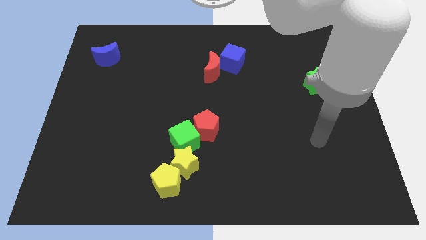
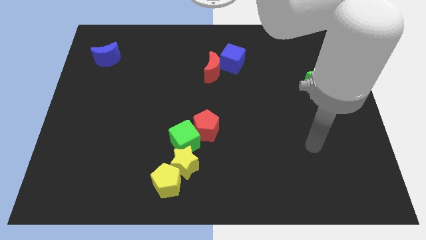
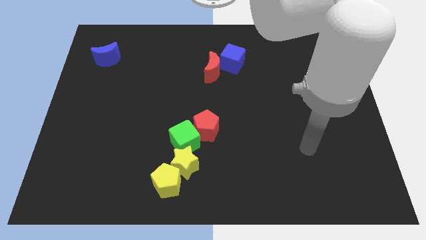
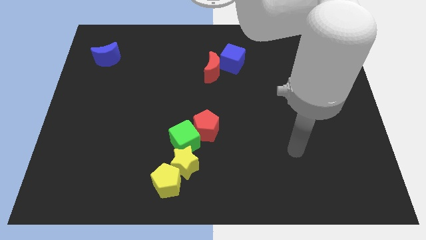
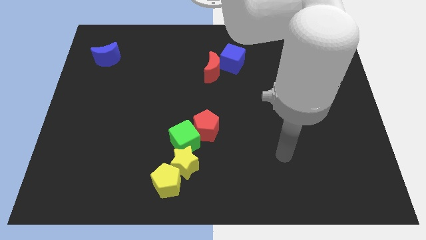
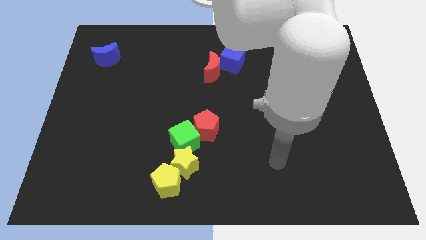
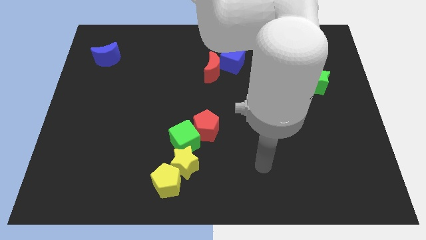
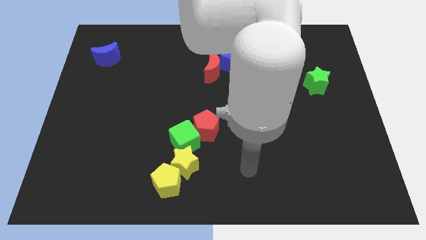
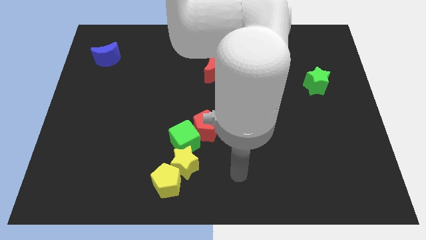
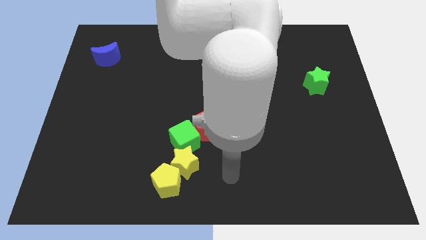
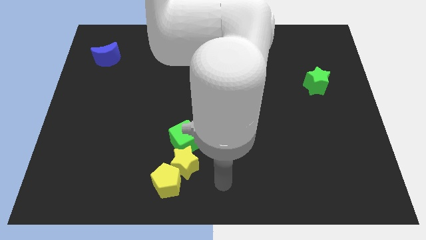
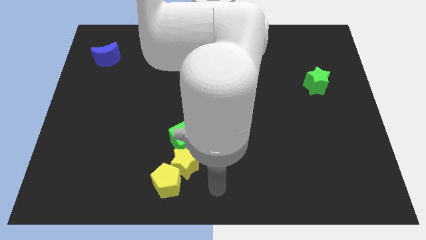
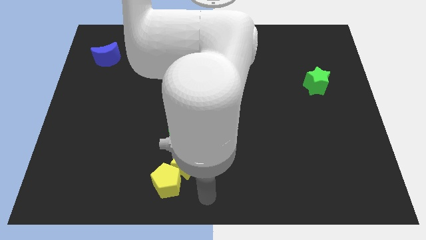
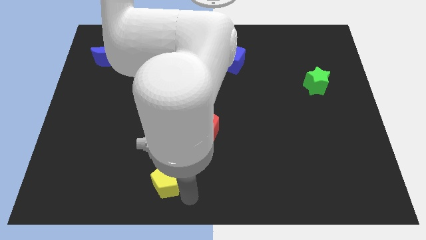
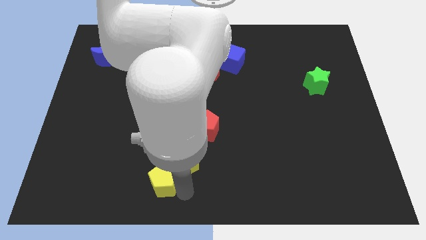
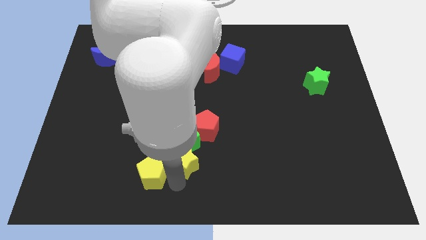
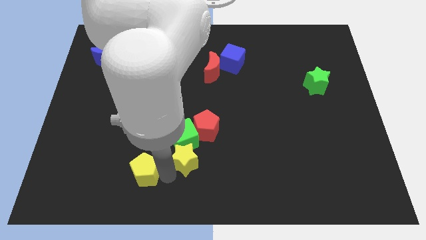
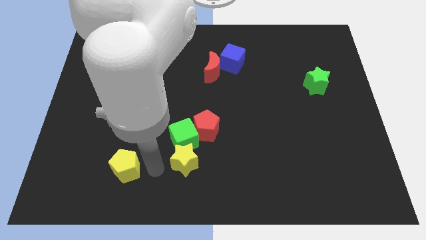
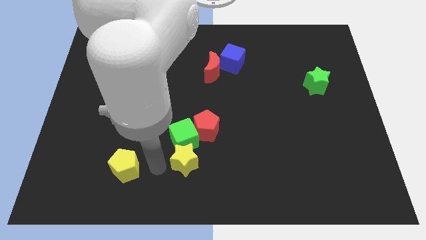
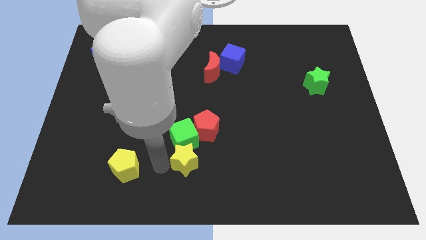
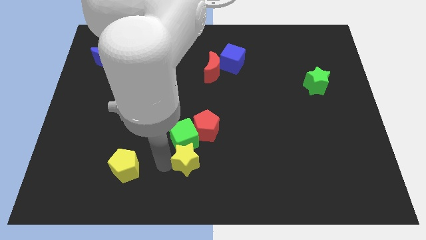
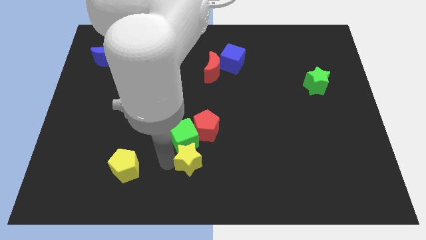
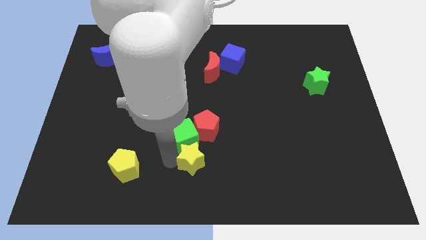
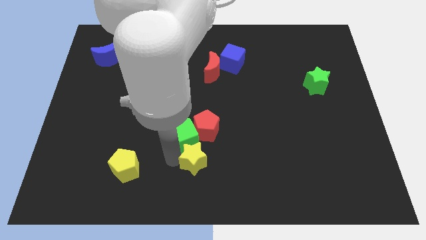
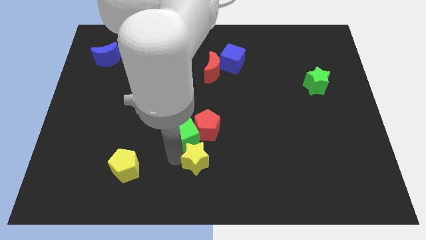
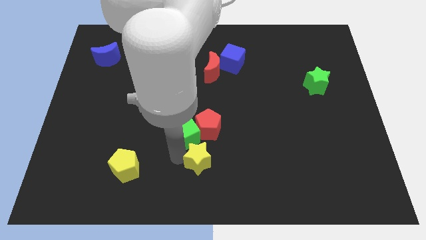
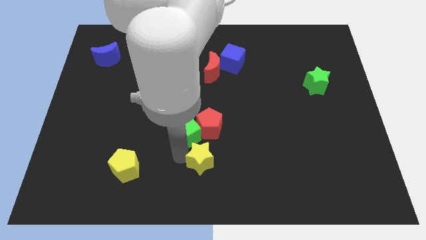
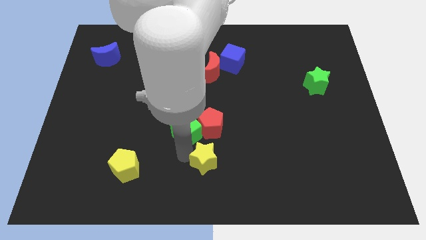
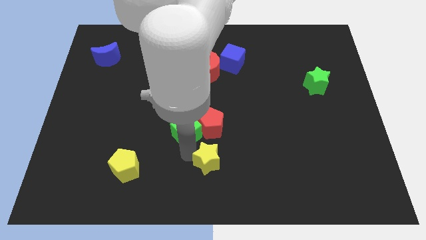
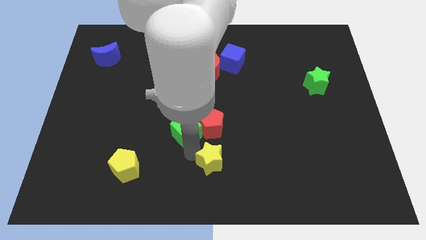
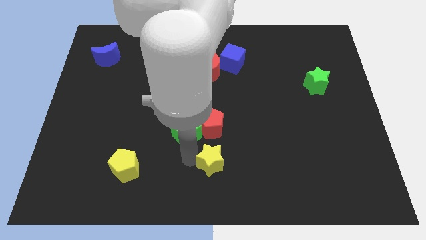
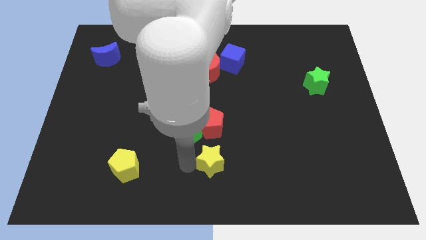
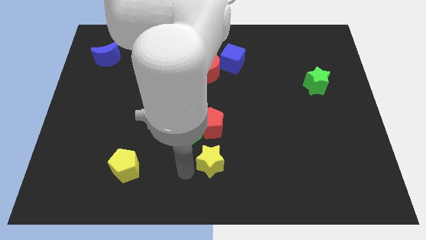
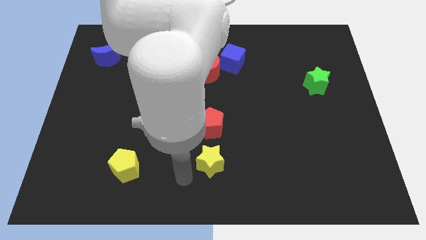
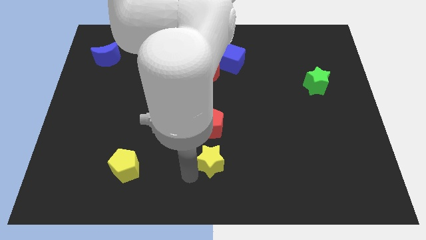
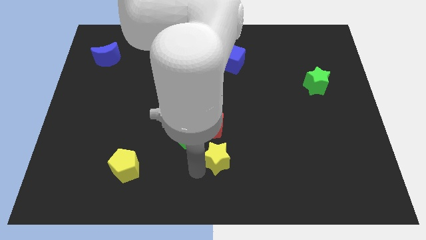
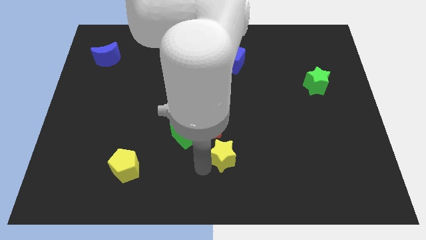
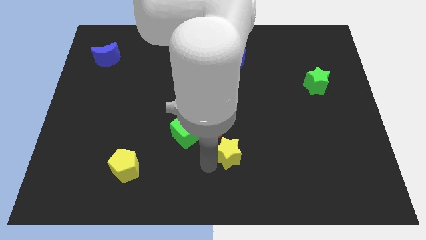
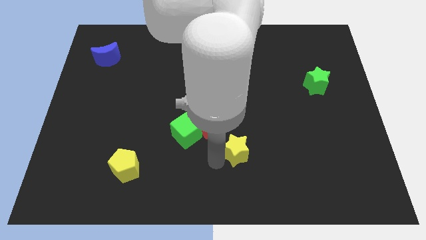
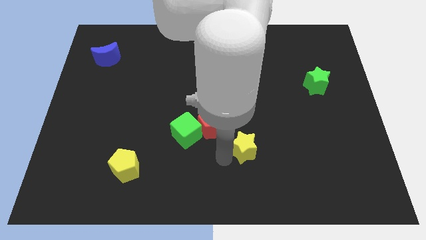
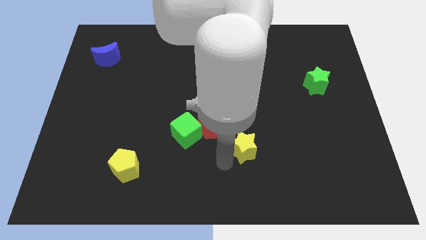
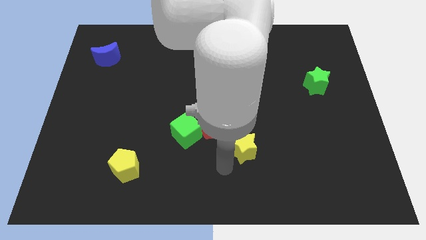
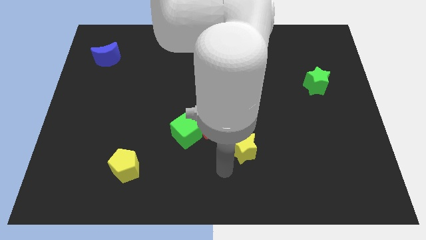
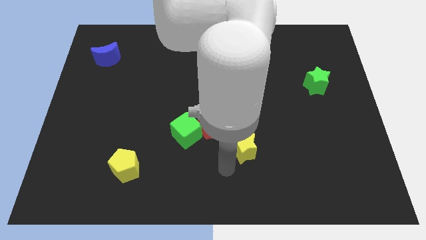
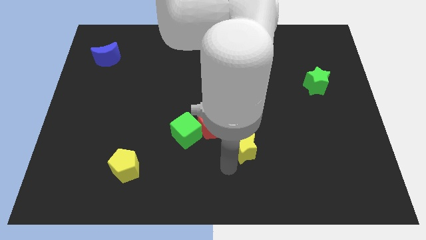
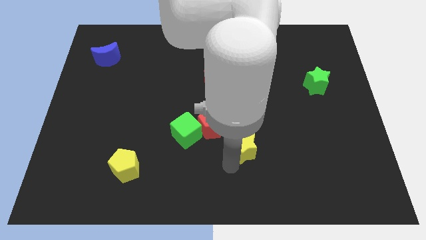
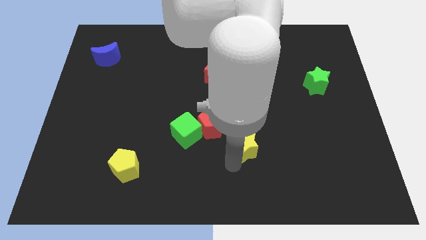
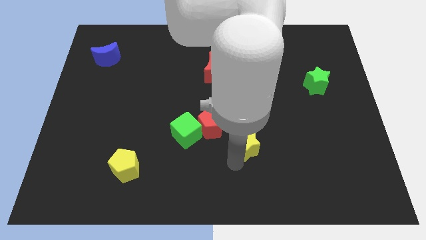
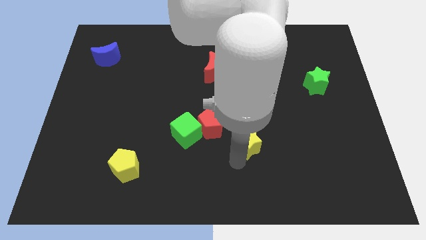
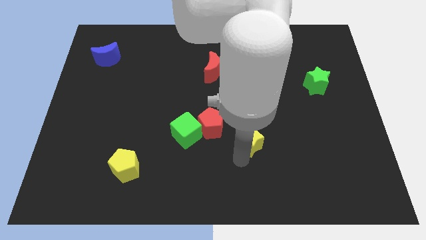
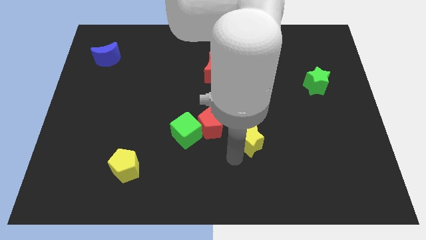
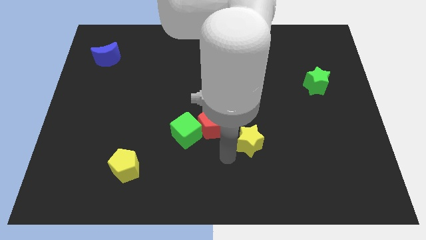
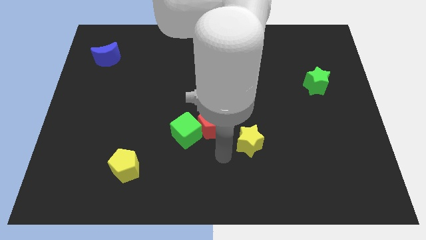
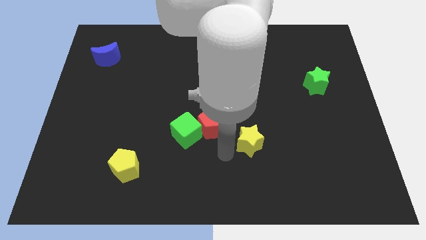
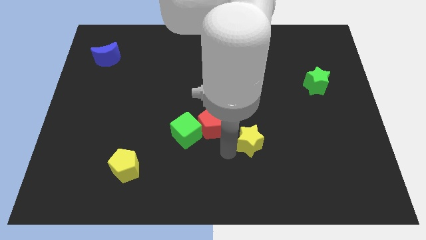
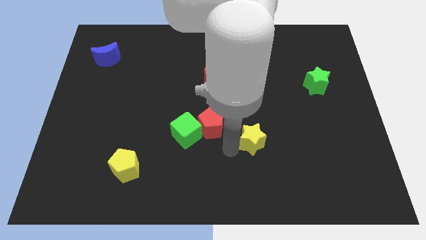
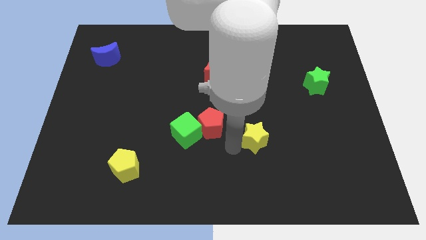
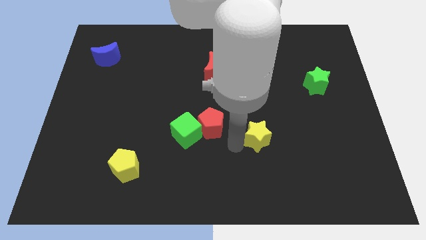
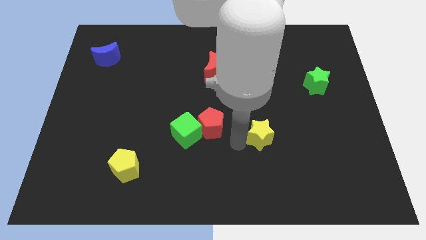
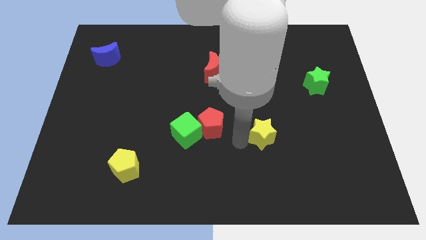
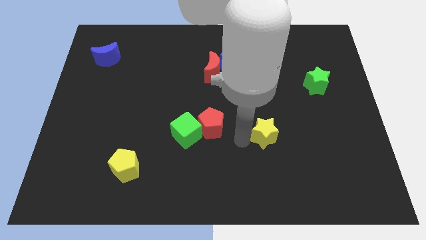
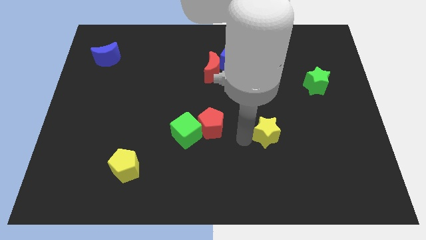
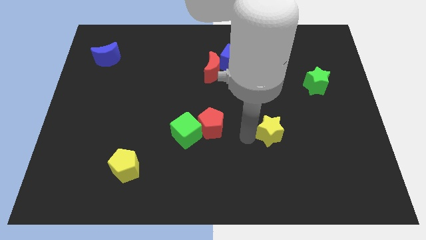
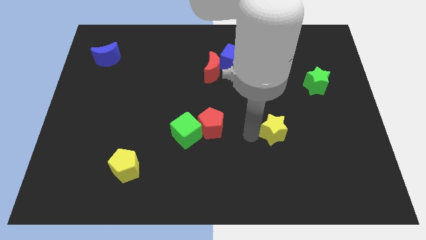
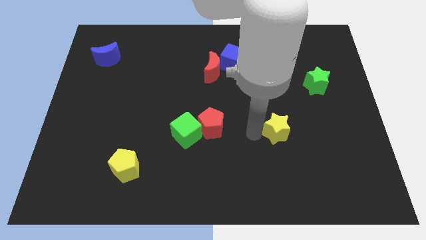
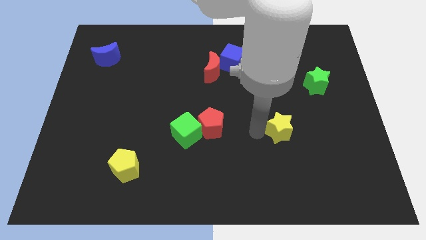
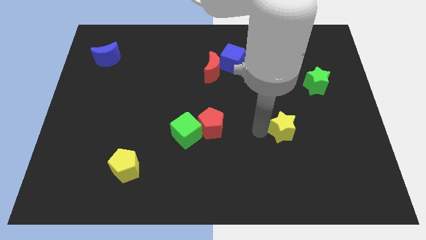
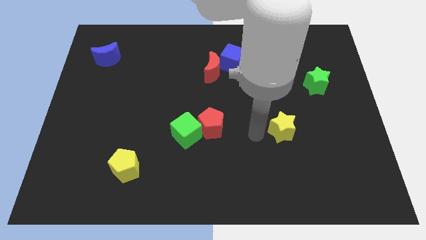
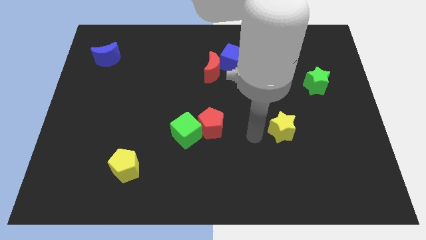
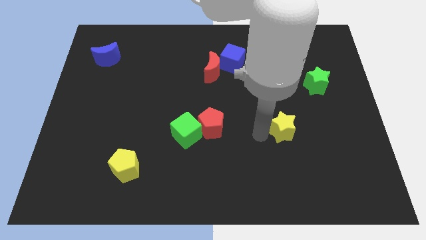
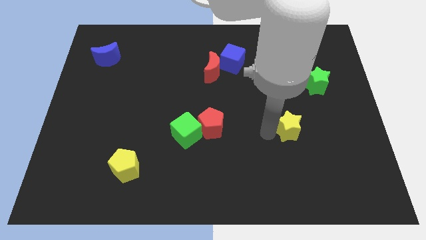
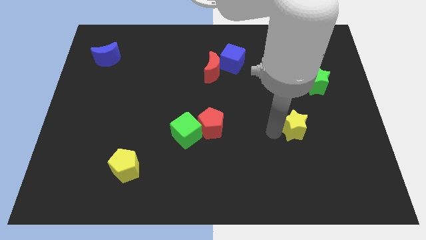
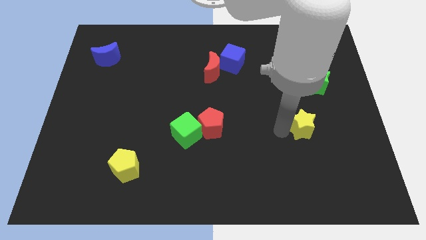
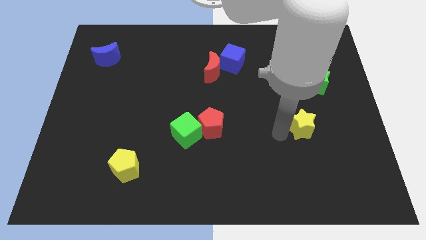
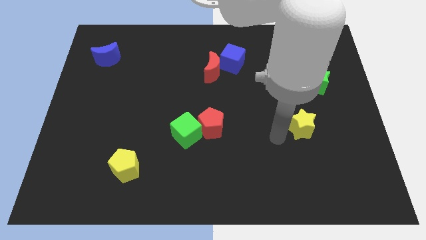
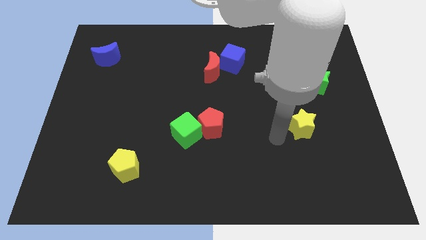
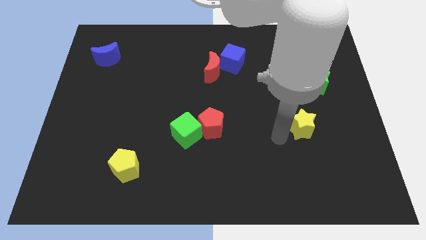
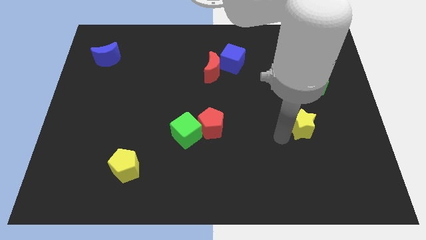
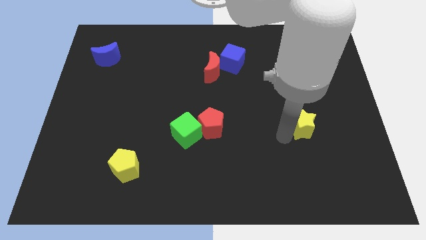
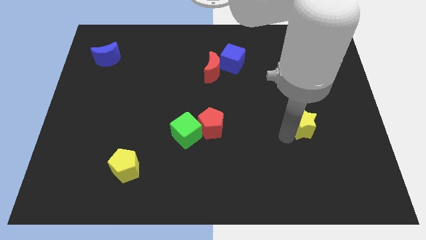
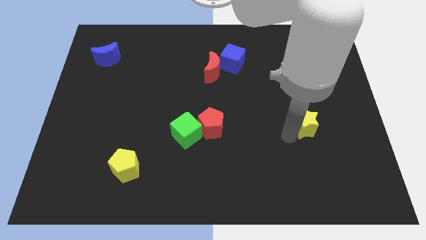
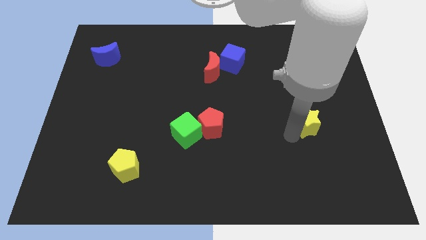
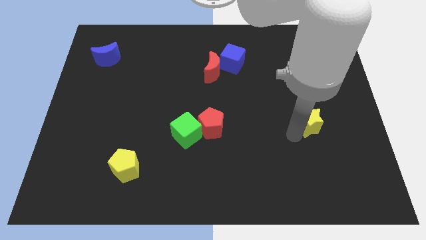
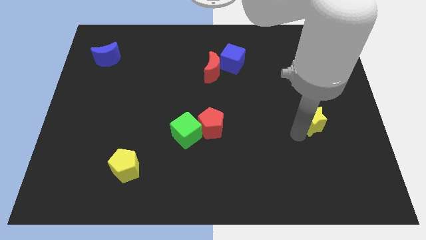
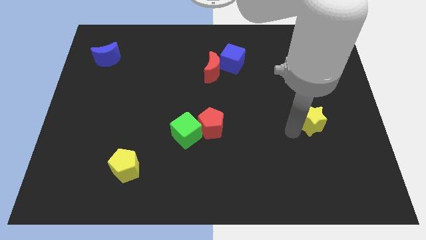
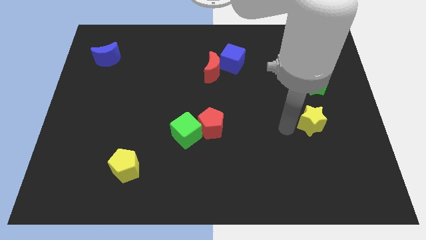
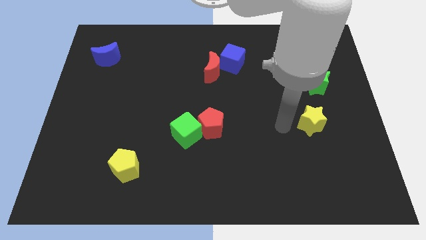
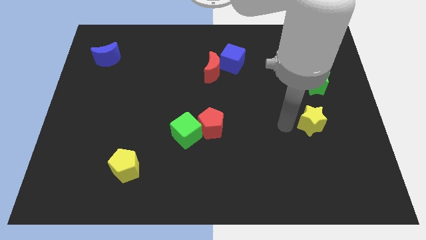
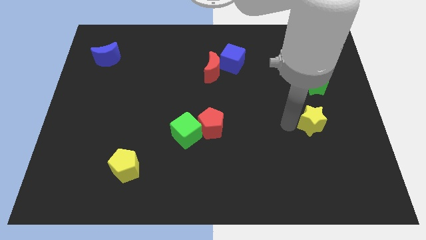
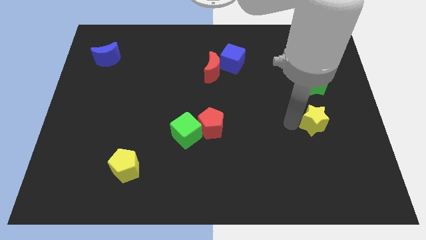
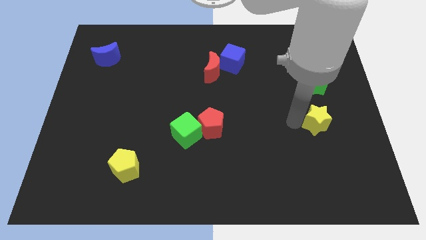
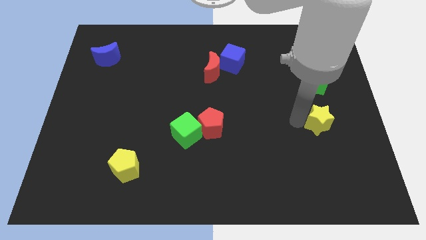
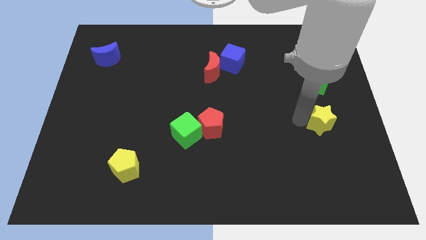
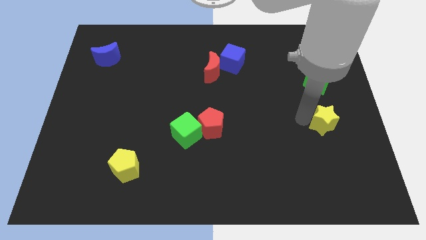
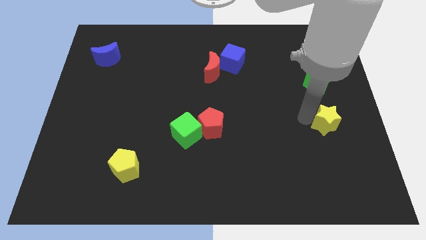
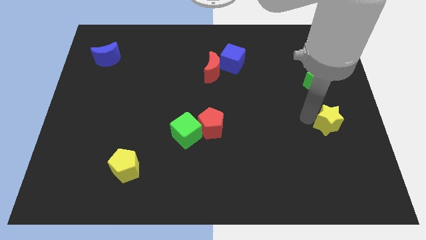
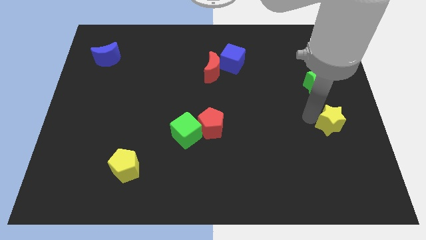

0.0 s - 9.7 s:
put the yellow star to the right side of the board
